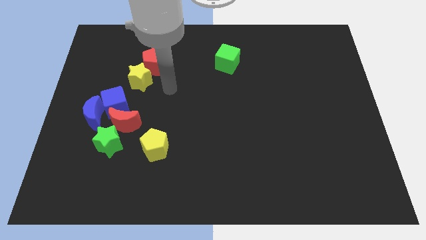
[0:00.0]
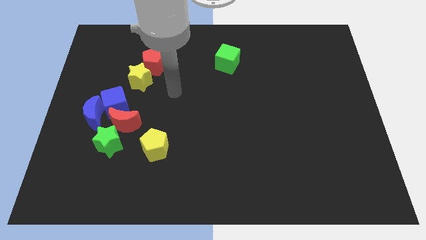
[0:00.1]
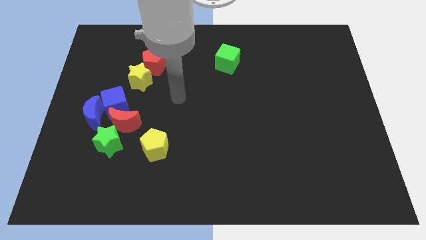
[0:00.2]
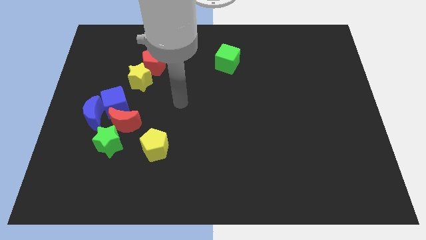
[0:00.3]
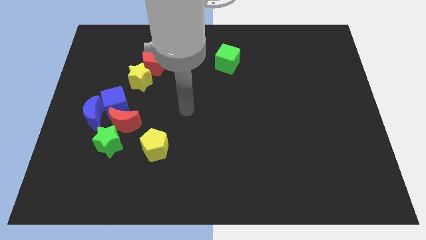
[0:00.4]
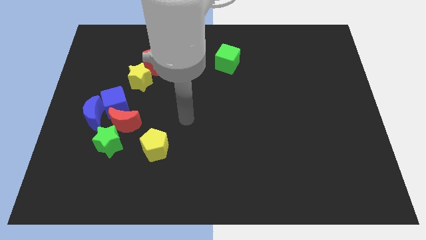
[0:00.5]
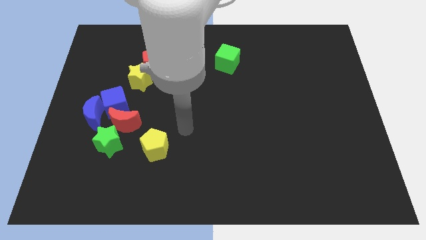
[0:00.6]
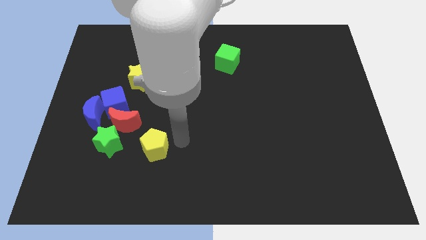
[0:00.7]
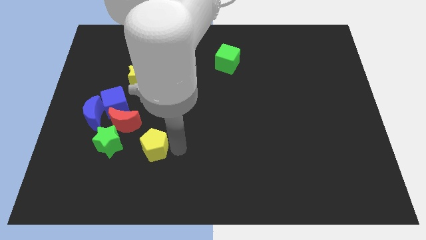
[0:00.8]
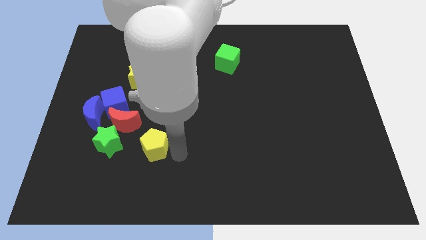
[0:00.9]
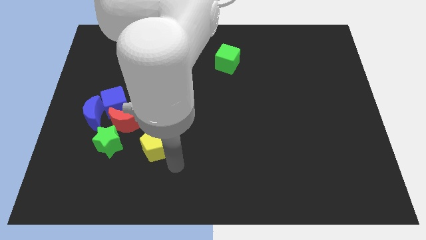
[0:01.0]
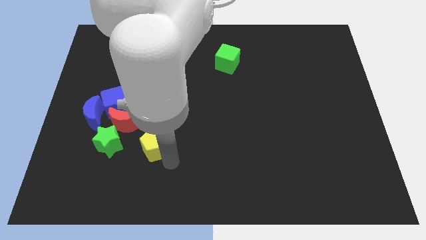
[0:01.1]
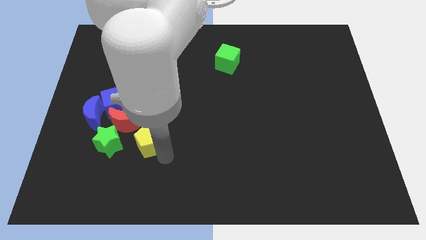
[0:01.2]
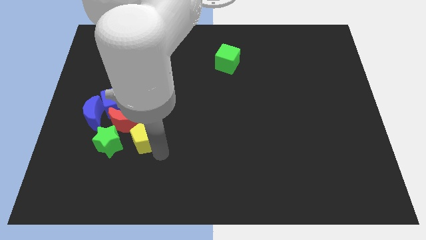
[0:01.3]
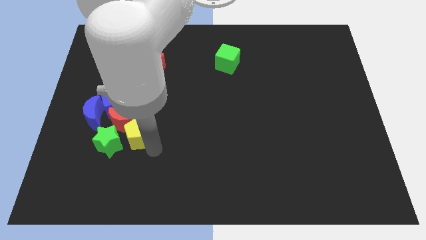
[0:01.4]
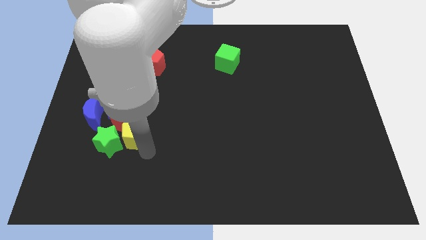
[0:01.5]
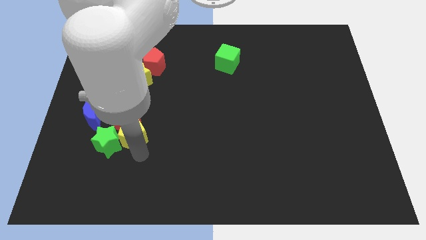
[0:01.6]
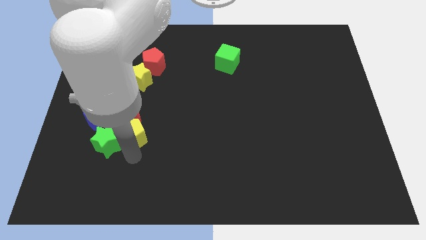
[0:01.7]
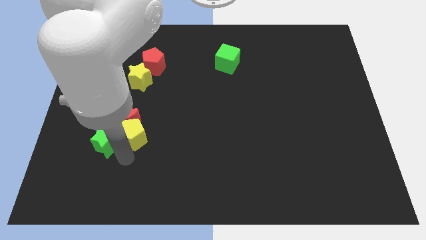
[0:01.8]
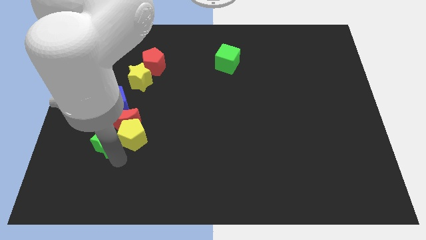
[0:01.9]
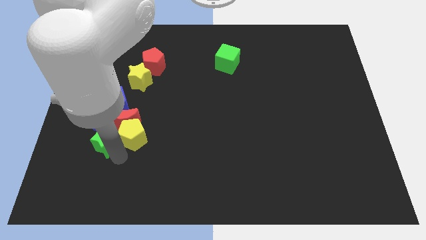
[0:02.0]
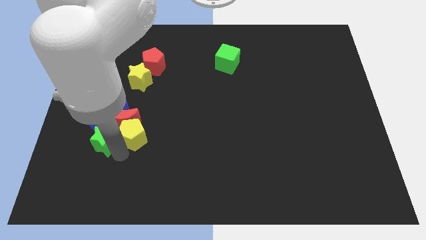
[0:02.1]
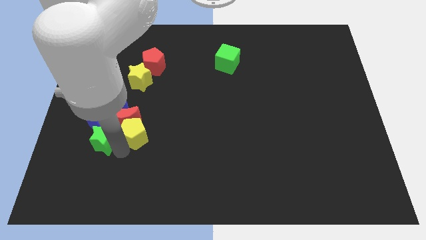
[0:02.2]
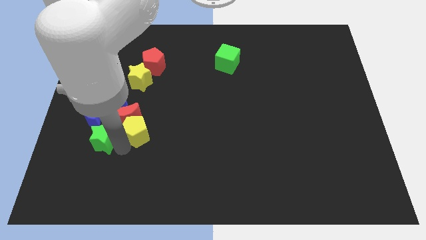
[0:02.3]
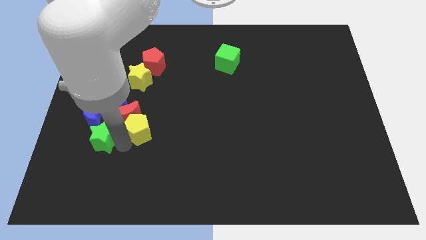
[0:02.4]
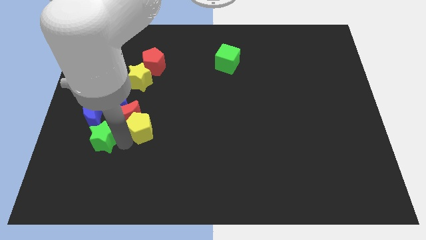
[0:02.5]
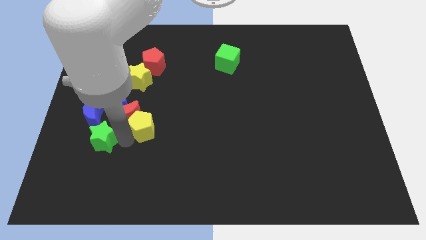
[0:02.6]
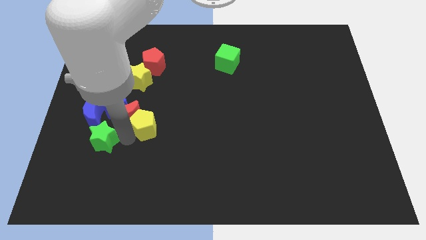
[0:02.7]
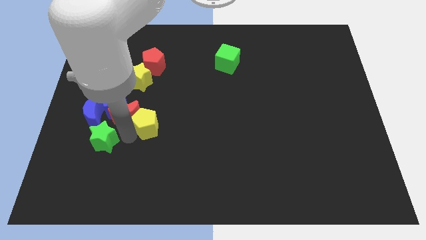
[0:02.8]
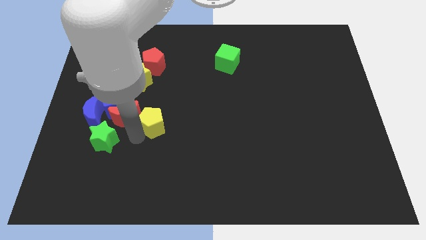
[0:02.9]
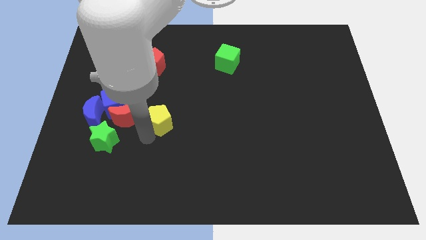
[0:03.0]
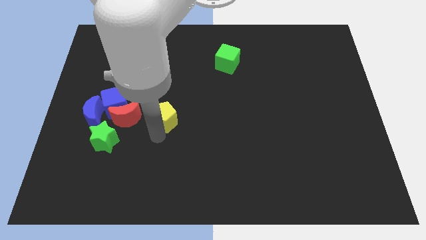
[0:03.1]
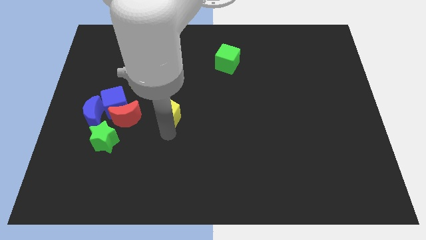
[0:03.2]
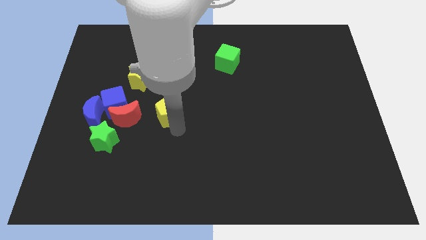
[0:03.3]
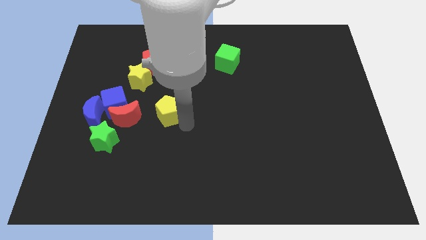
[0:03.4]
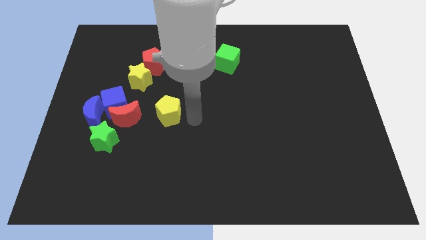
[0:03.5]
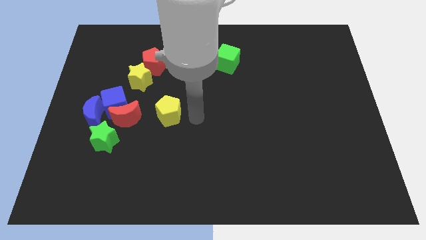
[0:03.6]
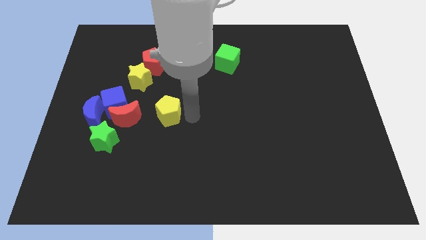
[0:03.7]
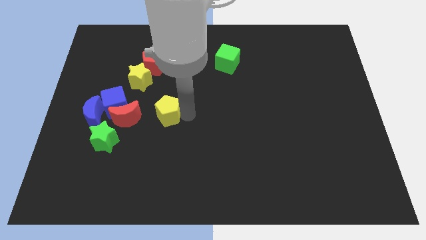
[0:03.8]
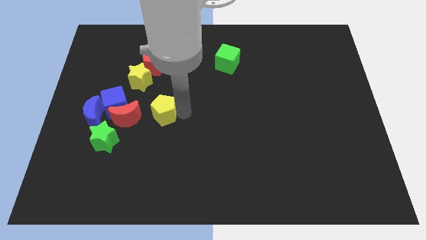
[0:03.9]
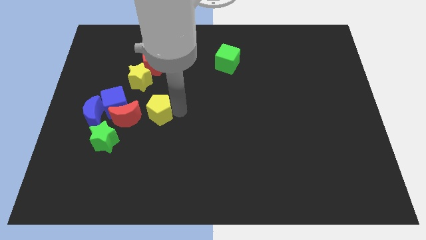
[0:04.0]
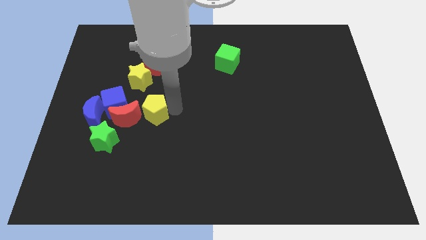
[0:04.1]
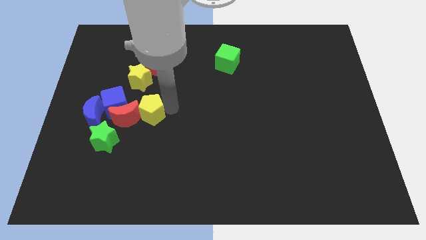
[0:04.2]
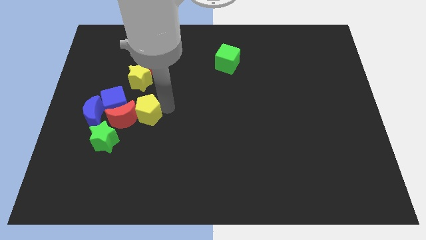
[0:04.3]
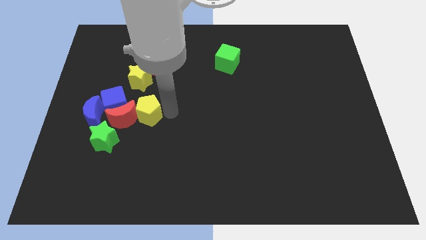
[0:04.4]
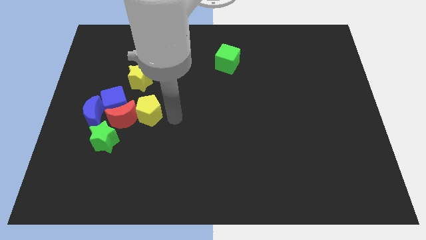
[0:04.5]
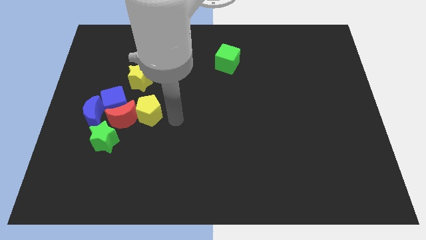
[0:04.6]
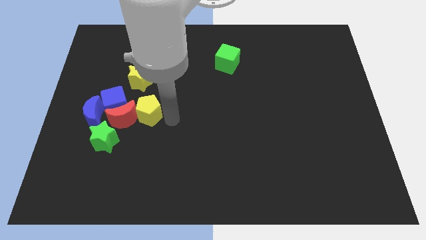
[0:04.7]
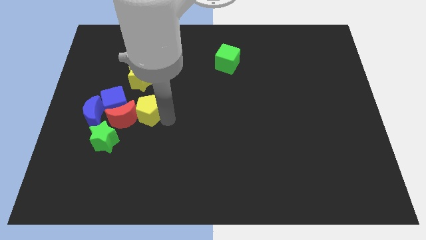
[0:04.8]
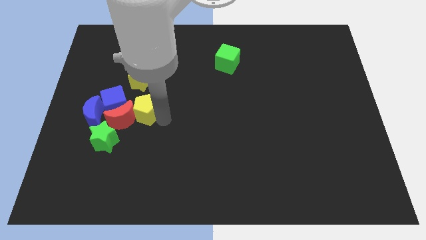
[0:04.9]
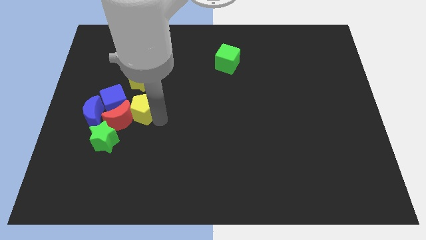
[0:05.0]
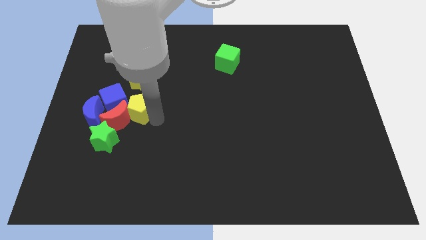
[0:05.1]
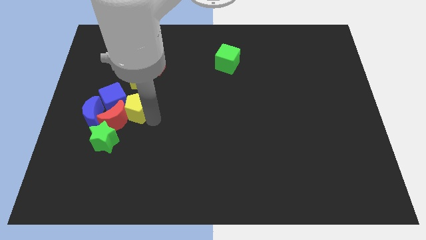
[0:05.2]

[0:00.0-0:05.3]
move the yellow pentagon to the blue cube

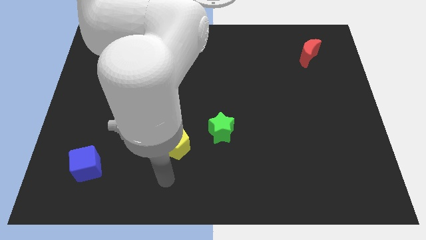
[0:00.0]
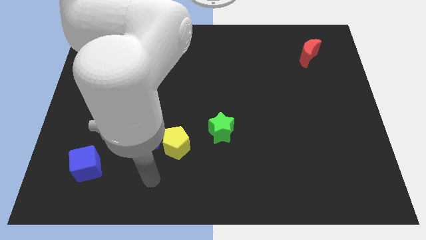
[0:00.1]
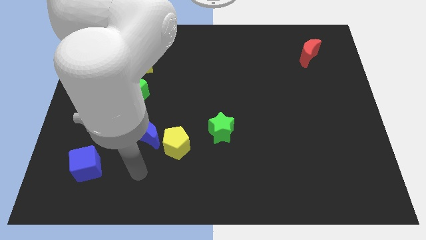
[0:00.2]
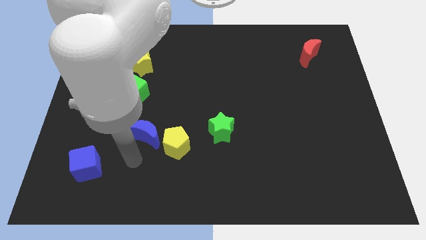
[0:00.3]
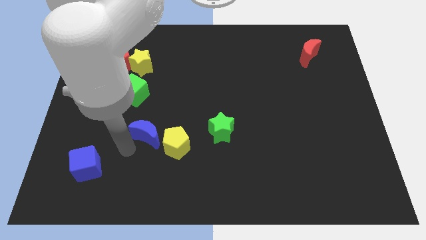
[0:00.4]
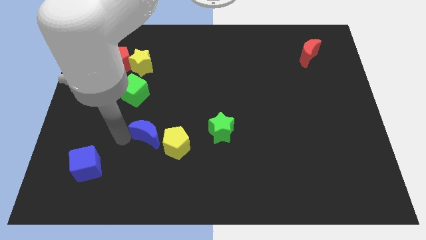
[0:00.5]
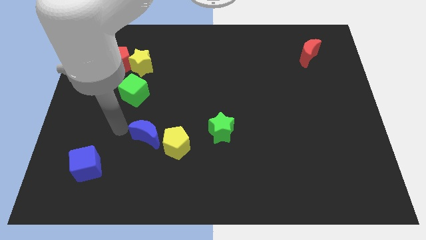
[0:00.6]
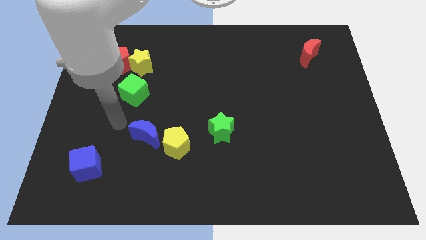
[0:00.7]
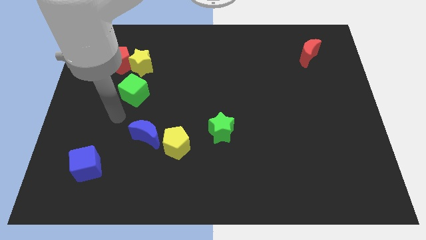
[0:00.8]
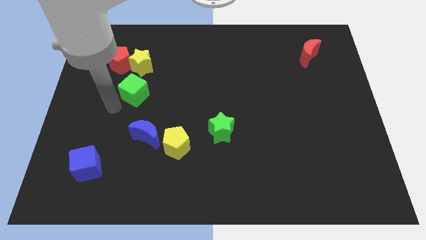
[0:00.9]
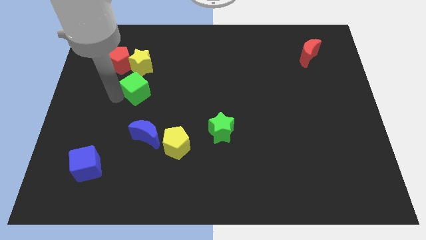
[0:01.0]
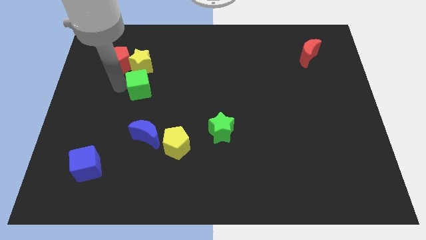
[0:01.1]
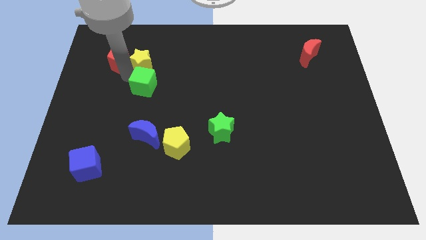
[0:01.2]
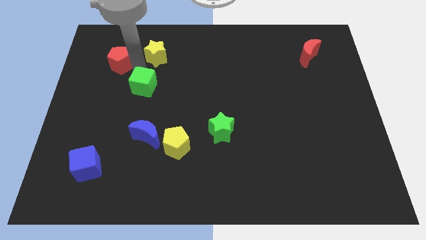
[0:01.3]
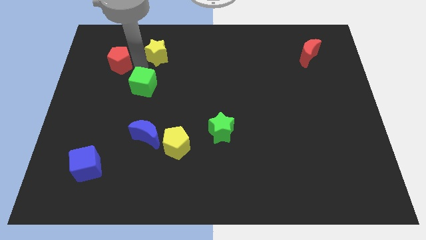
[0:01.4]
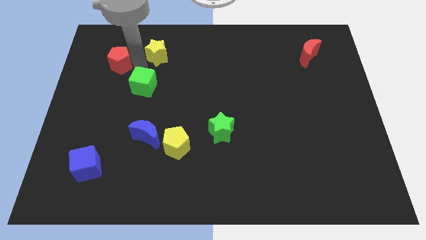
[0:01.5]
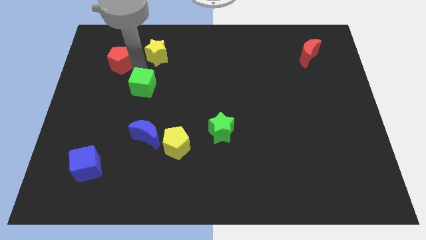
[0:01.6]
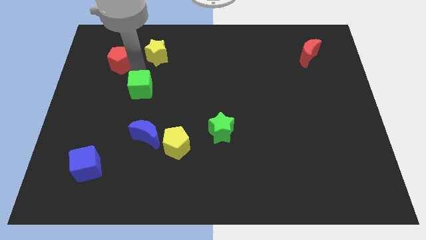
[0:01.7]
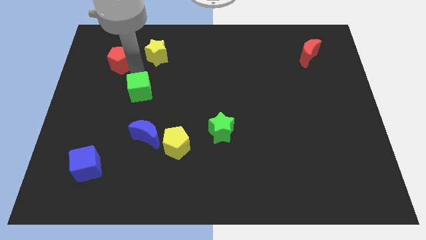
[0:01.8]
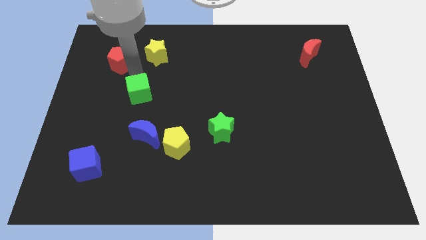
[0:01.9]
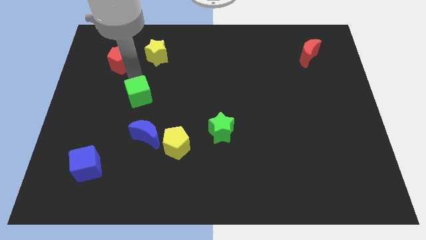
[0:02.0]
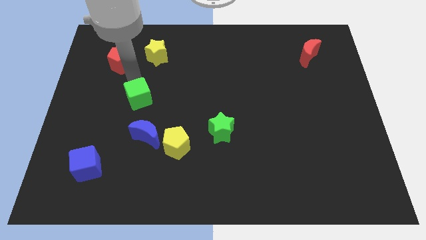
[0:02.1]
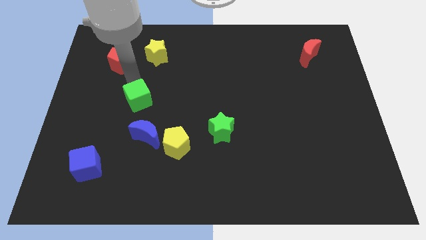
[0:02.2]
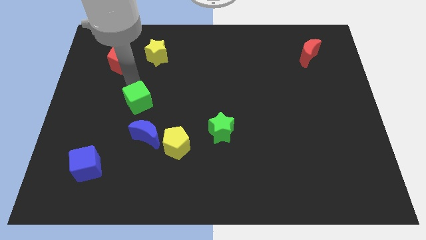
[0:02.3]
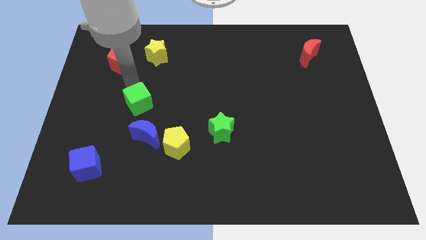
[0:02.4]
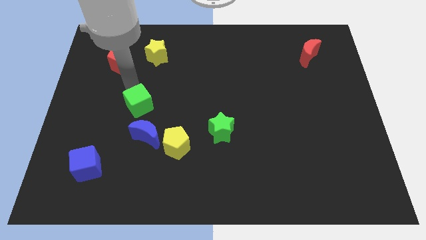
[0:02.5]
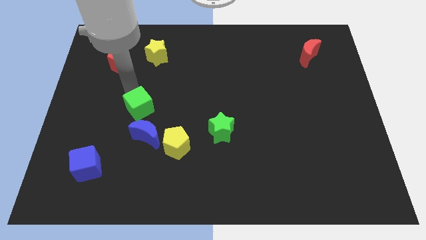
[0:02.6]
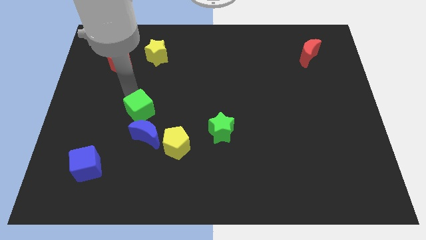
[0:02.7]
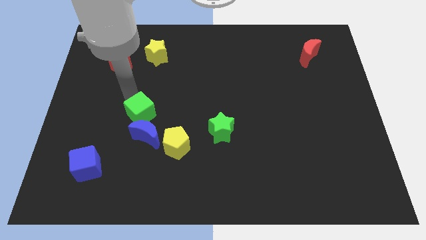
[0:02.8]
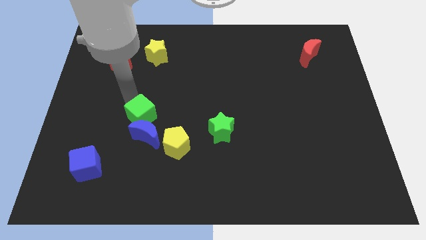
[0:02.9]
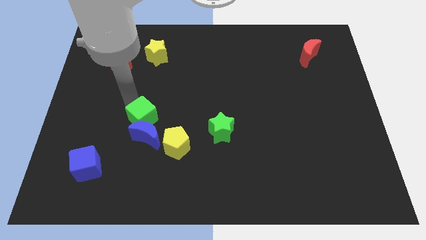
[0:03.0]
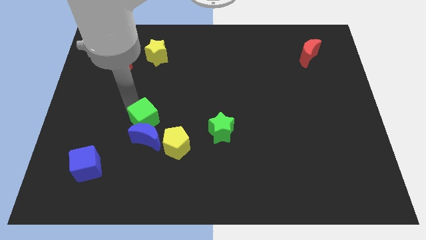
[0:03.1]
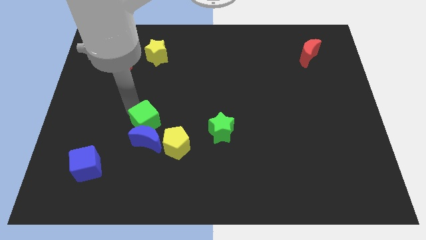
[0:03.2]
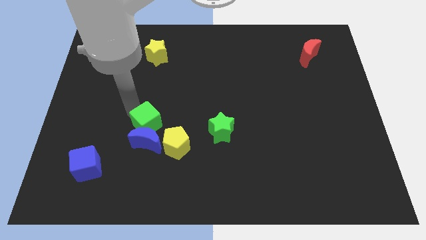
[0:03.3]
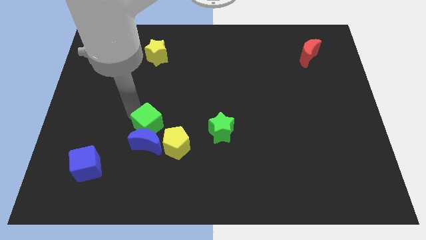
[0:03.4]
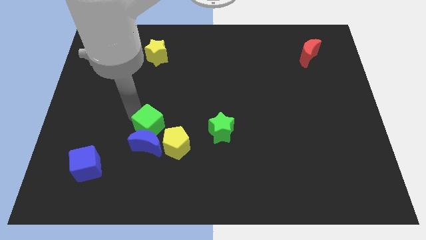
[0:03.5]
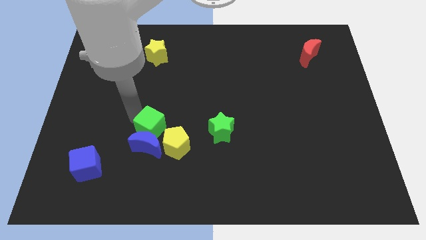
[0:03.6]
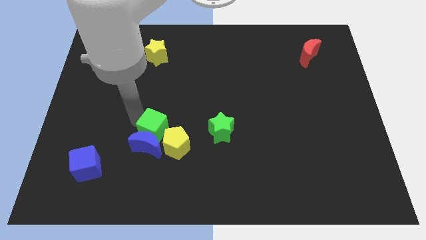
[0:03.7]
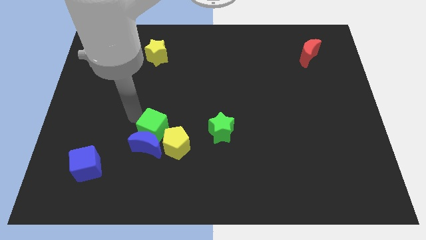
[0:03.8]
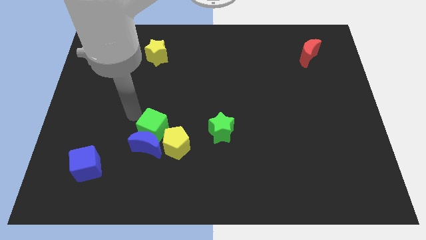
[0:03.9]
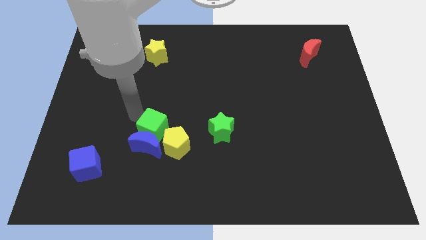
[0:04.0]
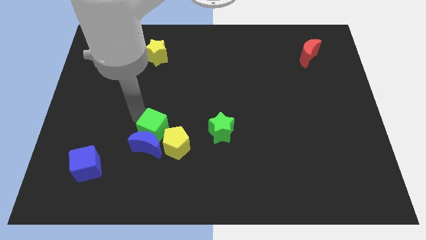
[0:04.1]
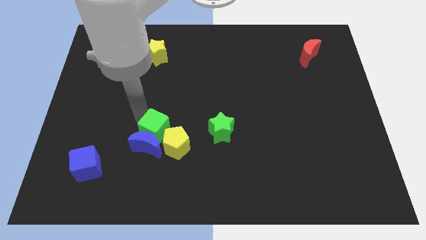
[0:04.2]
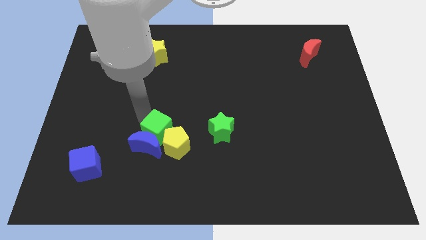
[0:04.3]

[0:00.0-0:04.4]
push the green cube next to the yellow pentagon
